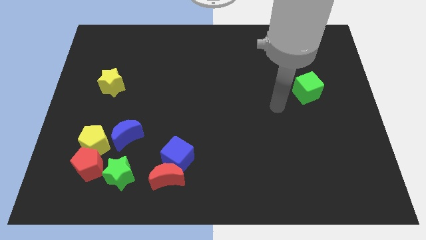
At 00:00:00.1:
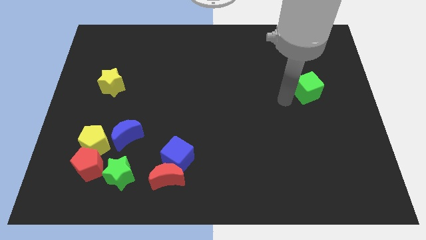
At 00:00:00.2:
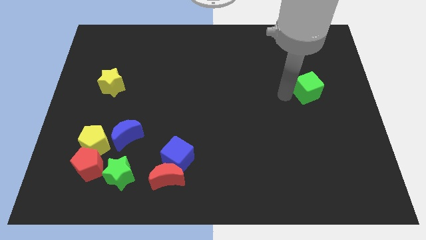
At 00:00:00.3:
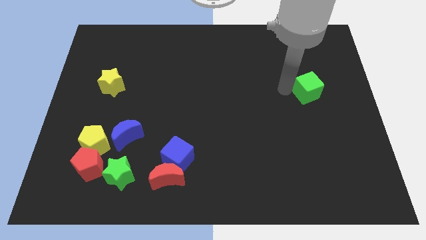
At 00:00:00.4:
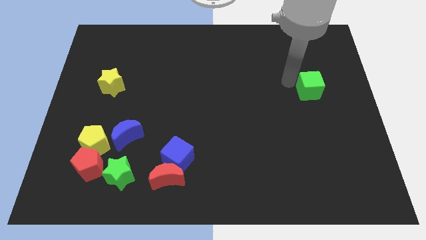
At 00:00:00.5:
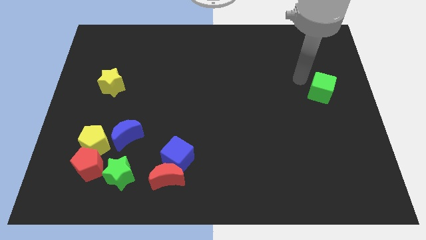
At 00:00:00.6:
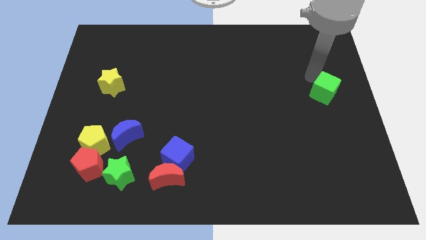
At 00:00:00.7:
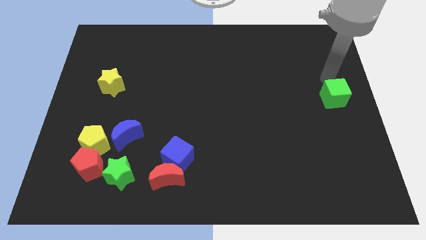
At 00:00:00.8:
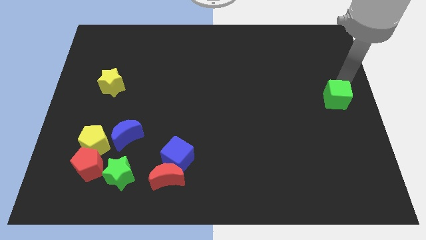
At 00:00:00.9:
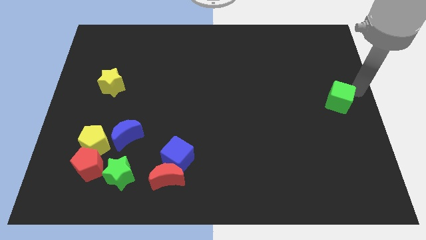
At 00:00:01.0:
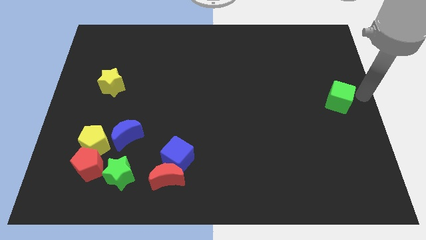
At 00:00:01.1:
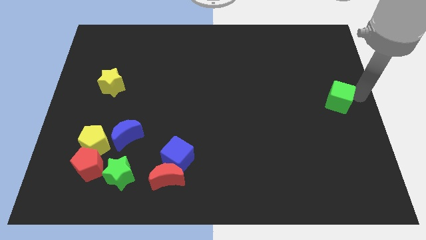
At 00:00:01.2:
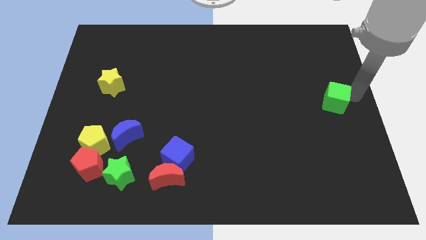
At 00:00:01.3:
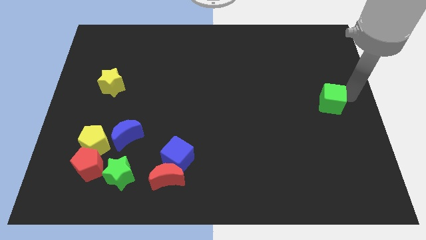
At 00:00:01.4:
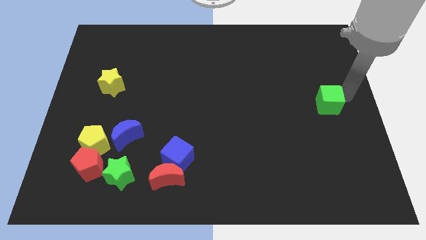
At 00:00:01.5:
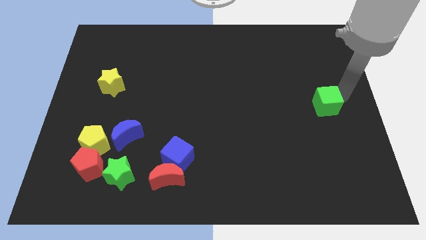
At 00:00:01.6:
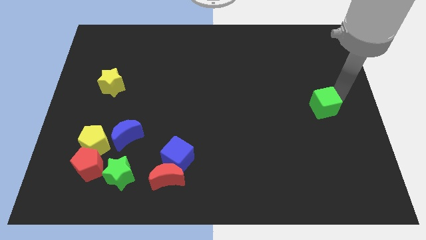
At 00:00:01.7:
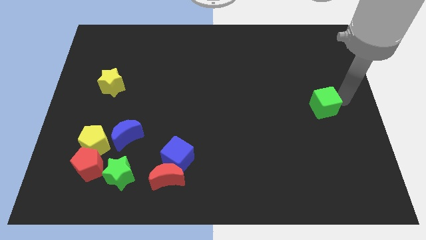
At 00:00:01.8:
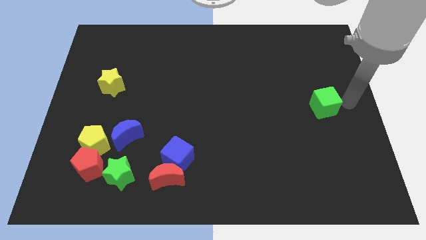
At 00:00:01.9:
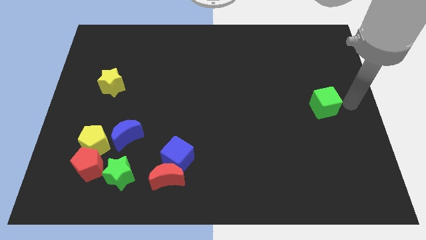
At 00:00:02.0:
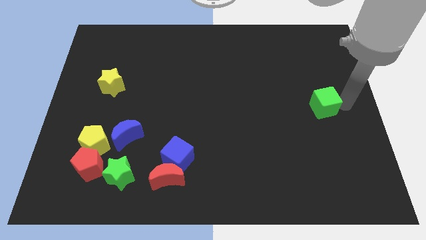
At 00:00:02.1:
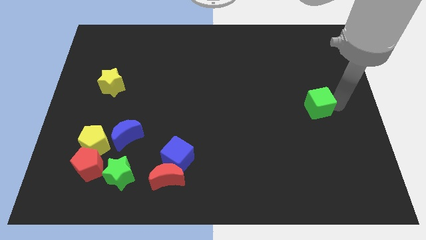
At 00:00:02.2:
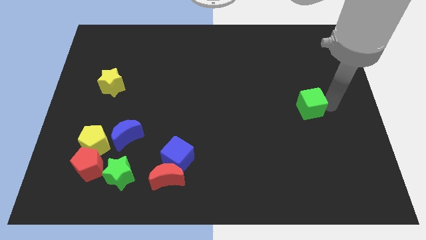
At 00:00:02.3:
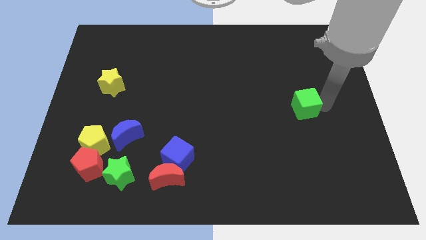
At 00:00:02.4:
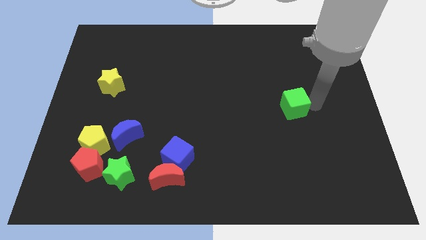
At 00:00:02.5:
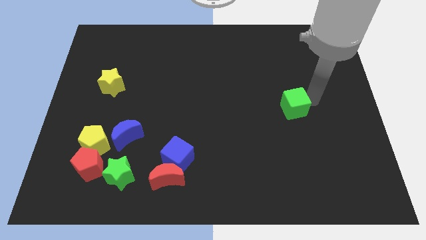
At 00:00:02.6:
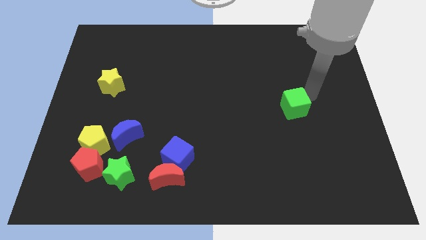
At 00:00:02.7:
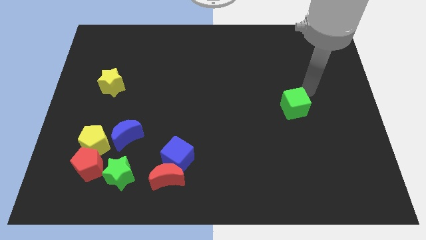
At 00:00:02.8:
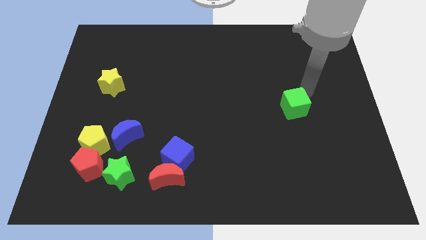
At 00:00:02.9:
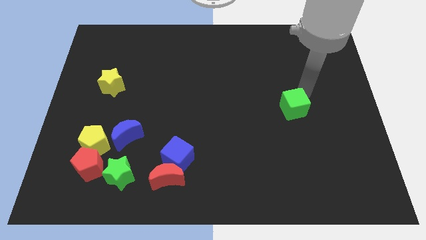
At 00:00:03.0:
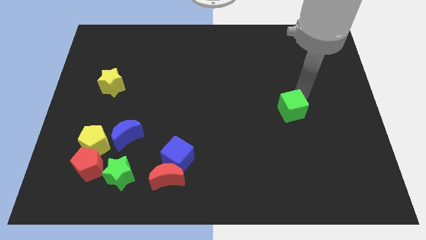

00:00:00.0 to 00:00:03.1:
slightly move the green cube down and left diagonally

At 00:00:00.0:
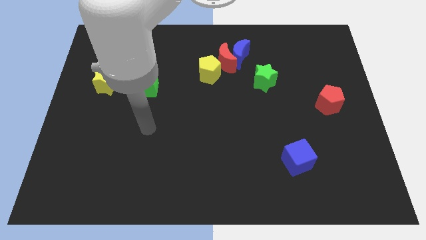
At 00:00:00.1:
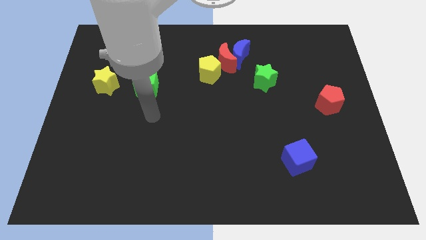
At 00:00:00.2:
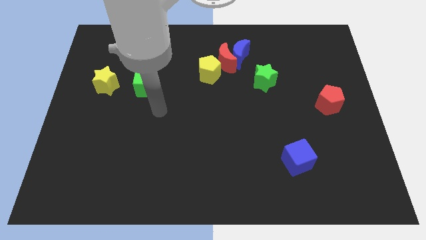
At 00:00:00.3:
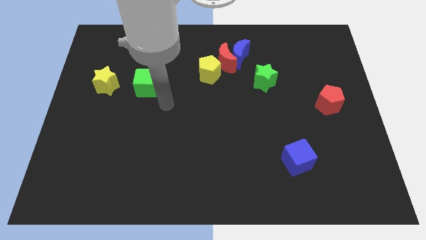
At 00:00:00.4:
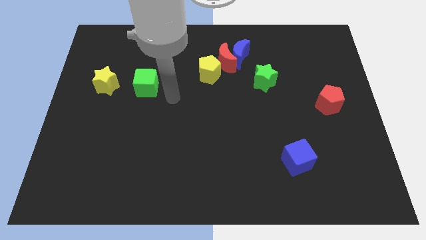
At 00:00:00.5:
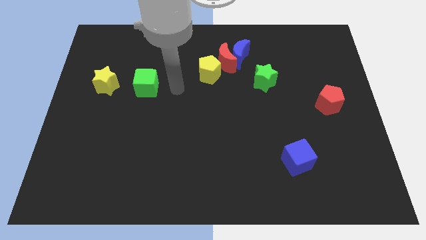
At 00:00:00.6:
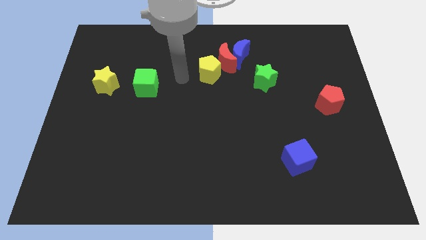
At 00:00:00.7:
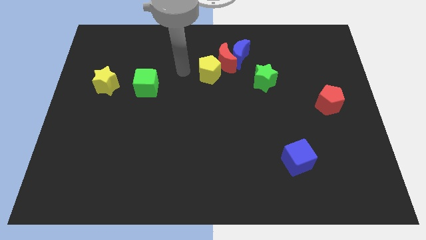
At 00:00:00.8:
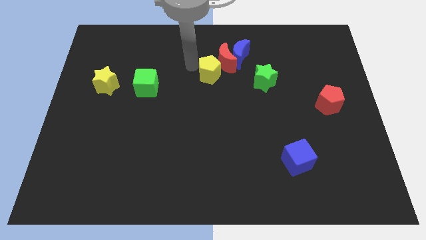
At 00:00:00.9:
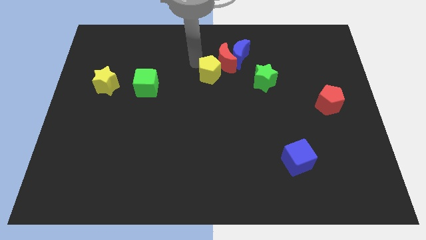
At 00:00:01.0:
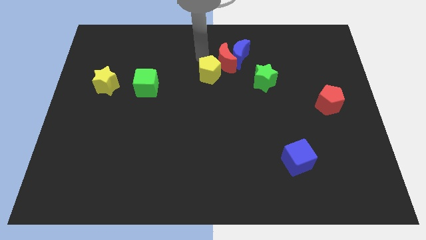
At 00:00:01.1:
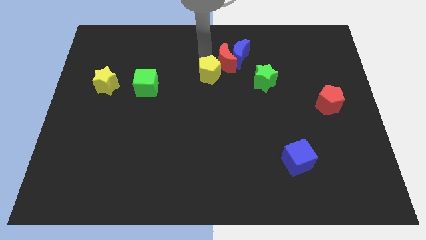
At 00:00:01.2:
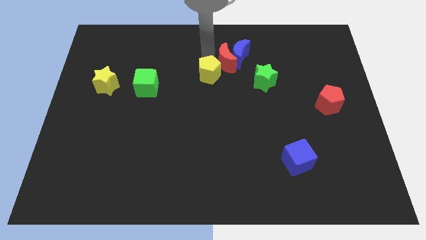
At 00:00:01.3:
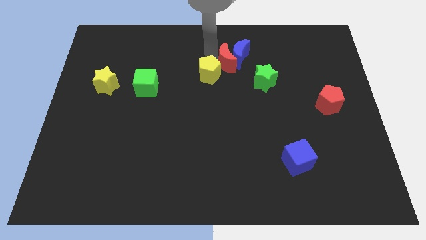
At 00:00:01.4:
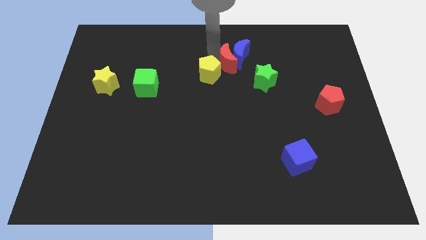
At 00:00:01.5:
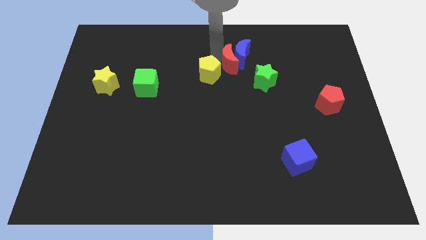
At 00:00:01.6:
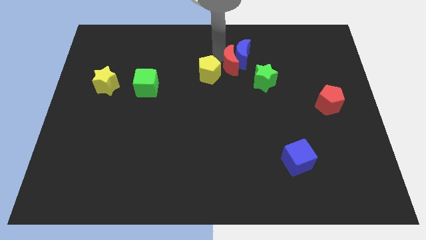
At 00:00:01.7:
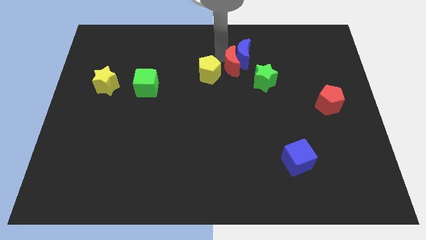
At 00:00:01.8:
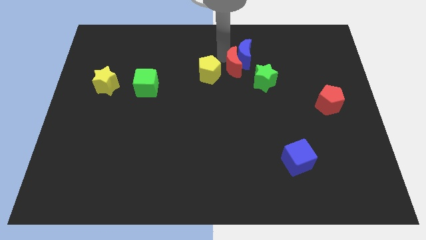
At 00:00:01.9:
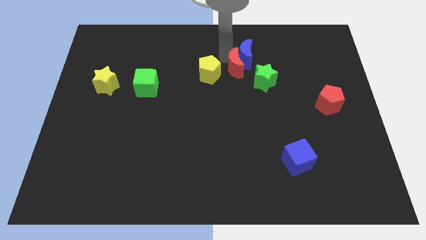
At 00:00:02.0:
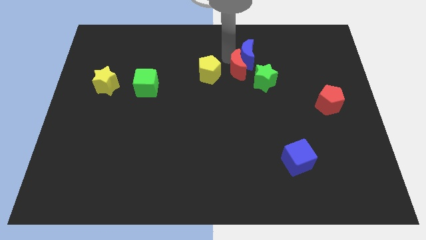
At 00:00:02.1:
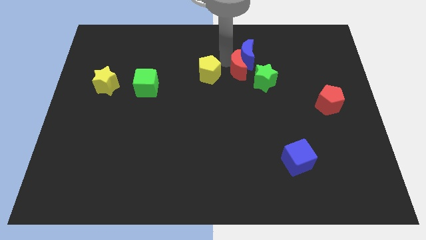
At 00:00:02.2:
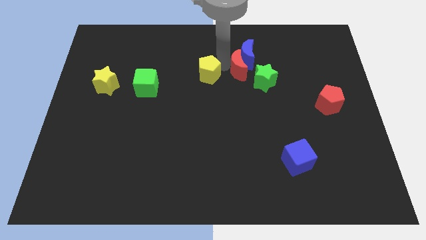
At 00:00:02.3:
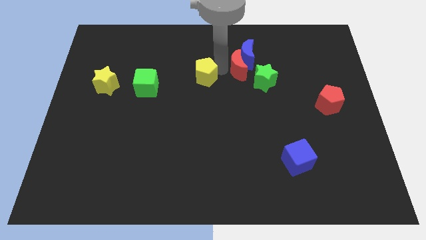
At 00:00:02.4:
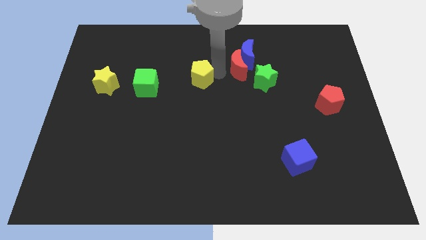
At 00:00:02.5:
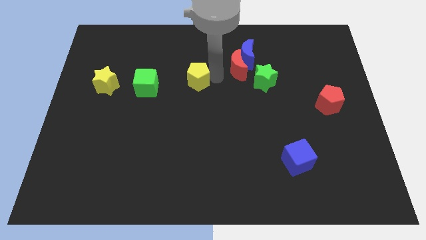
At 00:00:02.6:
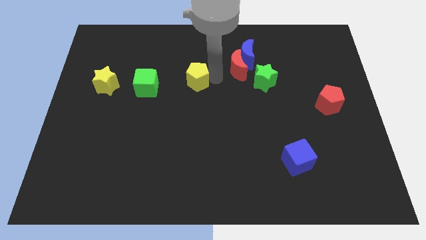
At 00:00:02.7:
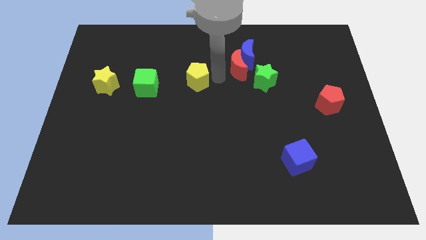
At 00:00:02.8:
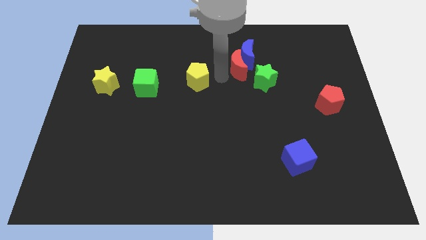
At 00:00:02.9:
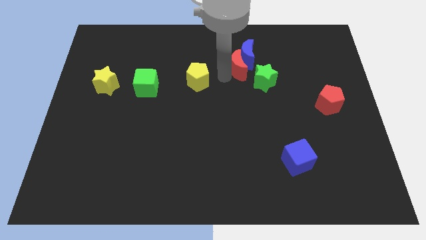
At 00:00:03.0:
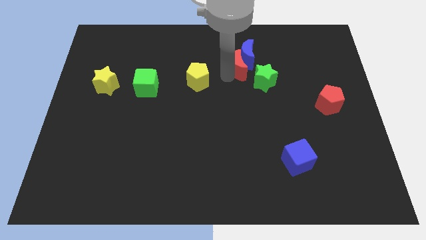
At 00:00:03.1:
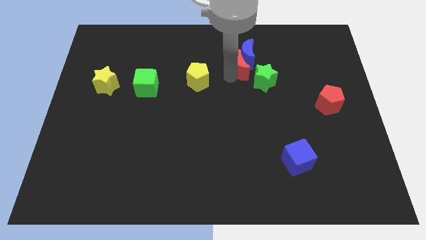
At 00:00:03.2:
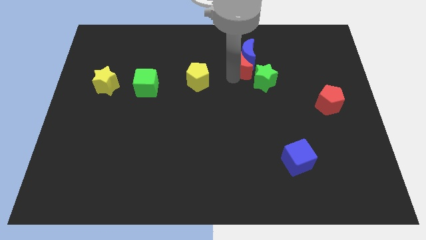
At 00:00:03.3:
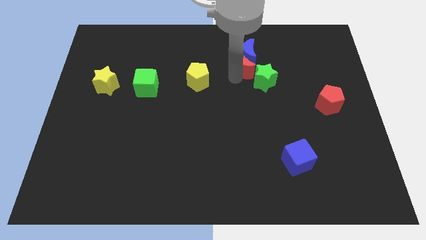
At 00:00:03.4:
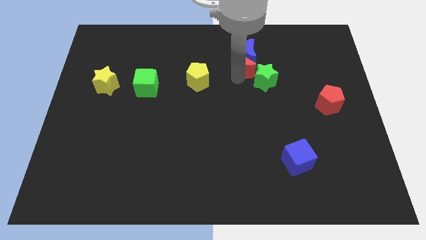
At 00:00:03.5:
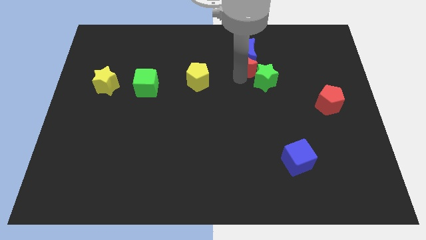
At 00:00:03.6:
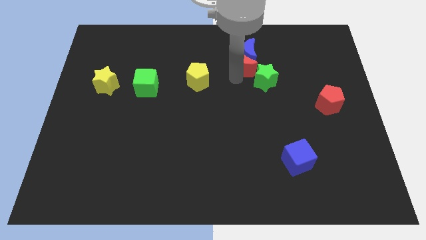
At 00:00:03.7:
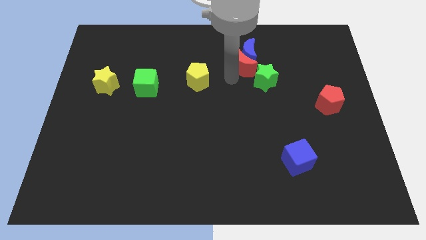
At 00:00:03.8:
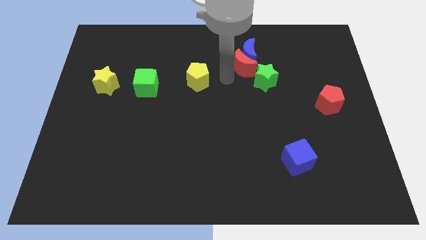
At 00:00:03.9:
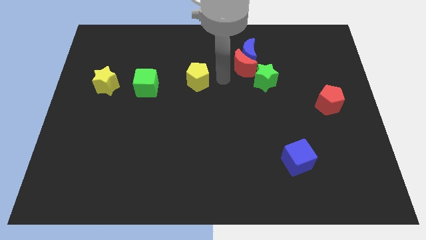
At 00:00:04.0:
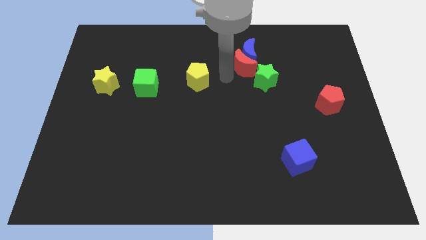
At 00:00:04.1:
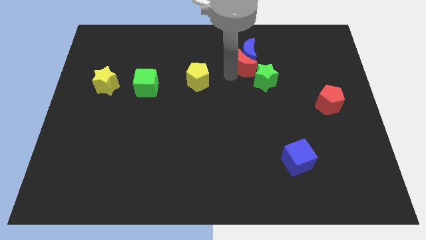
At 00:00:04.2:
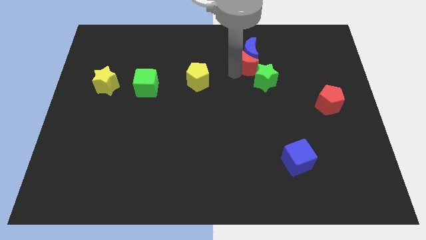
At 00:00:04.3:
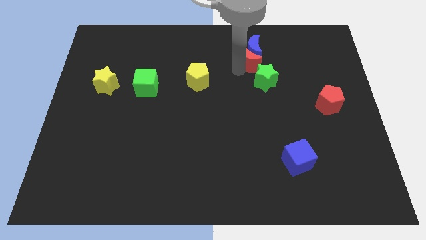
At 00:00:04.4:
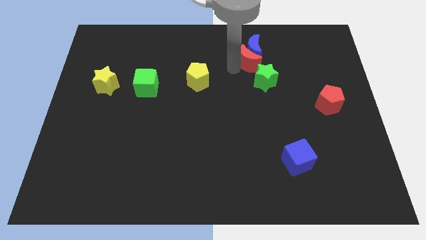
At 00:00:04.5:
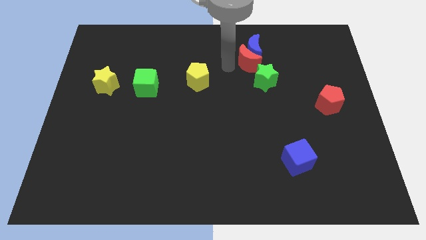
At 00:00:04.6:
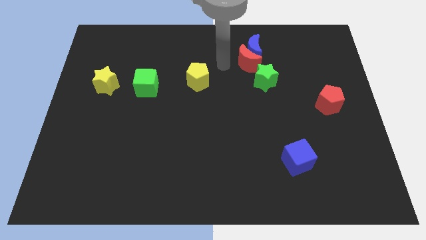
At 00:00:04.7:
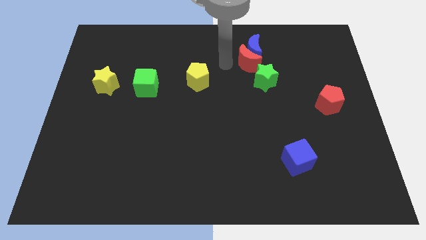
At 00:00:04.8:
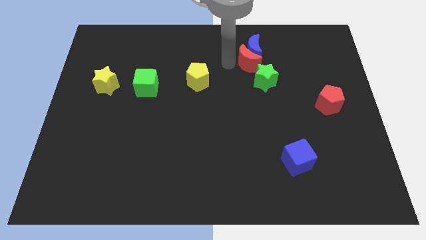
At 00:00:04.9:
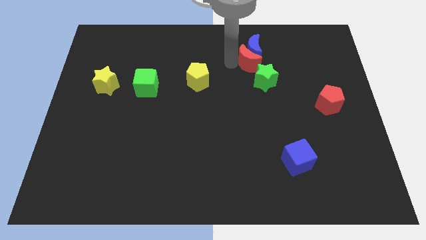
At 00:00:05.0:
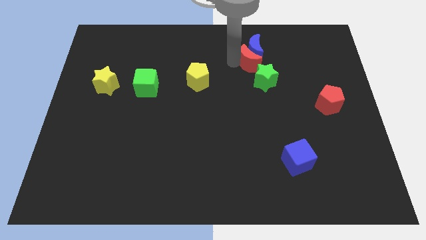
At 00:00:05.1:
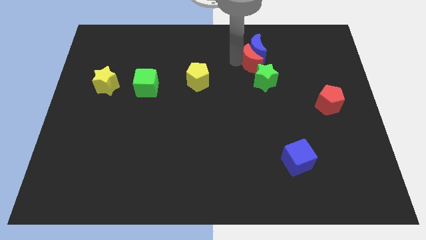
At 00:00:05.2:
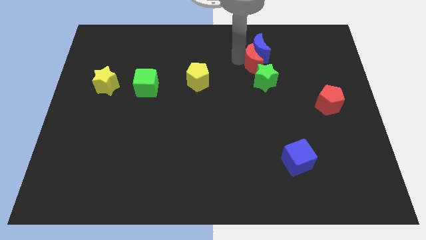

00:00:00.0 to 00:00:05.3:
slightly slide the red moon to the right
